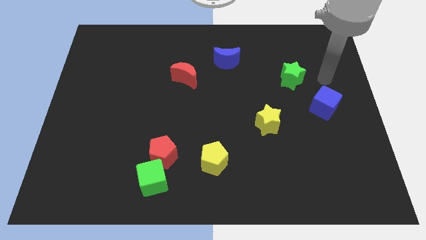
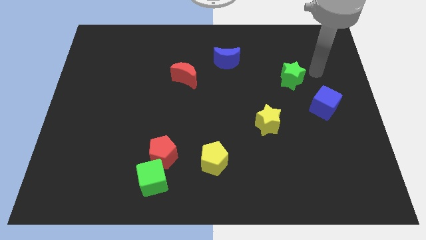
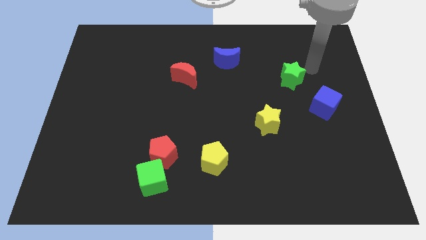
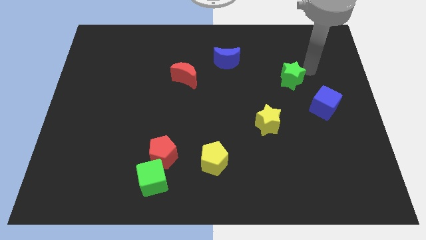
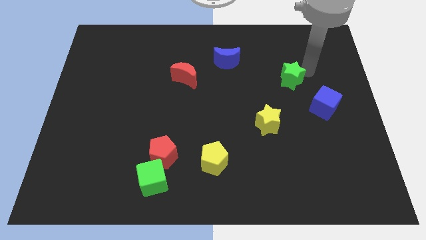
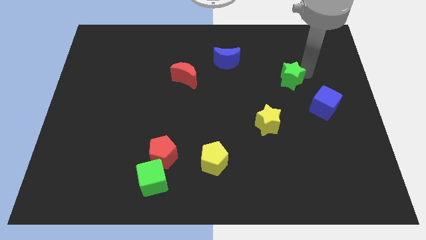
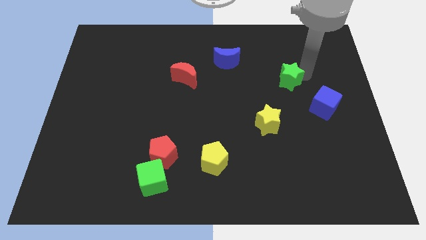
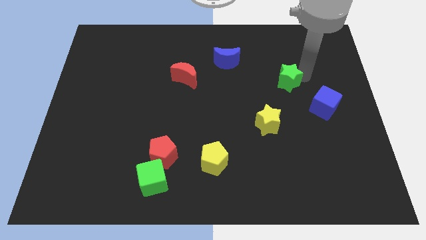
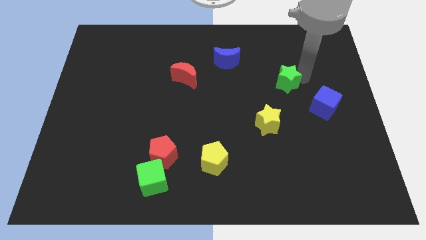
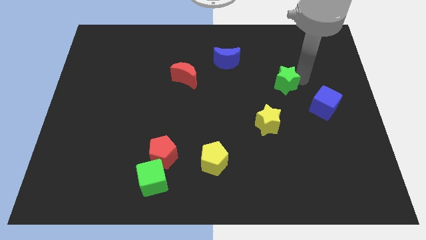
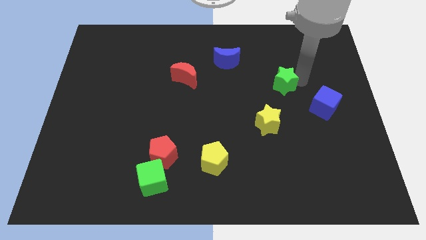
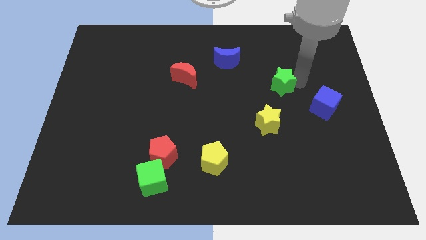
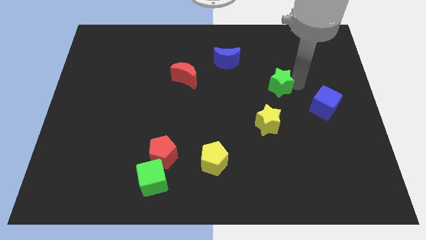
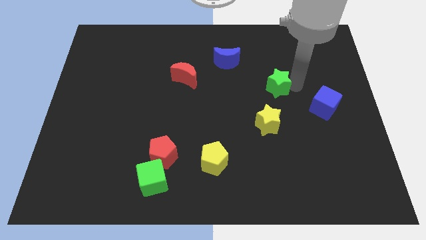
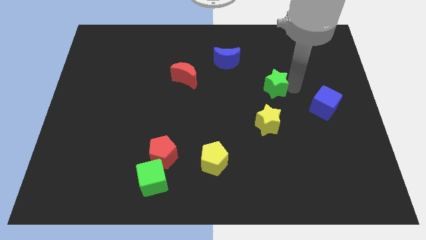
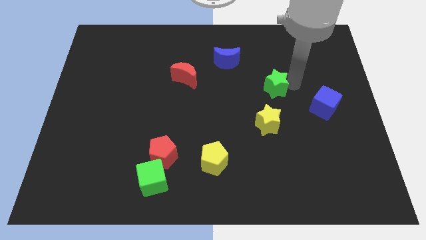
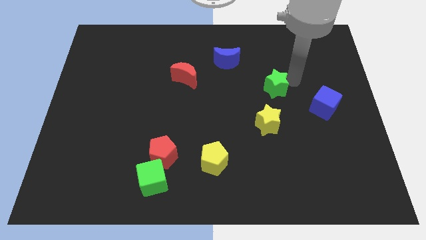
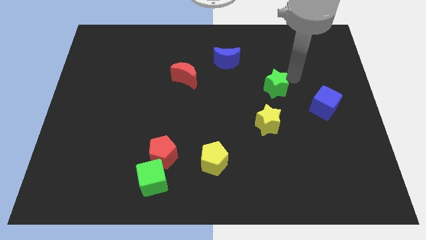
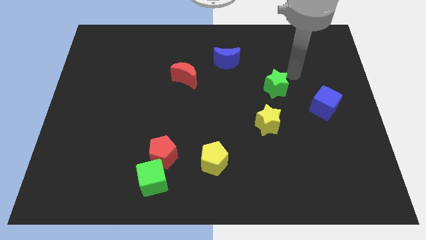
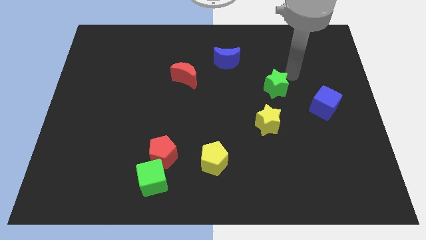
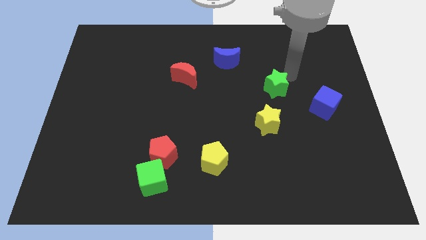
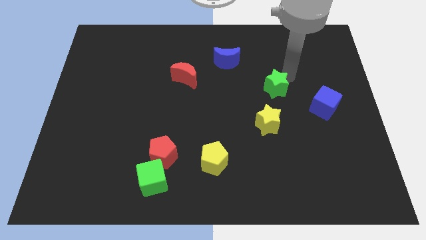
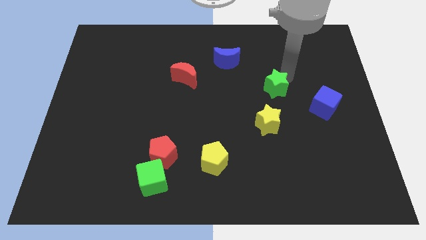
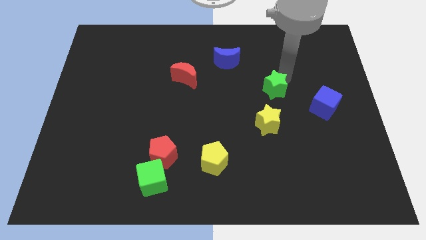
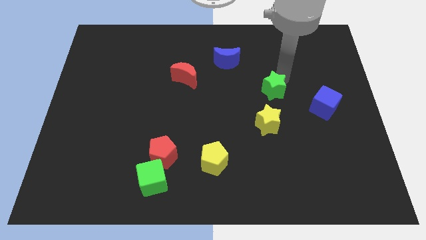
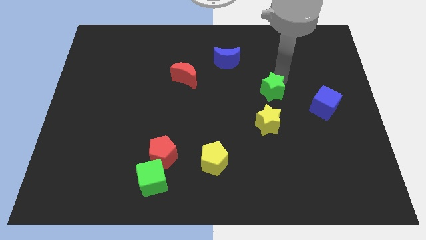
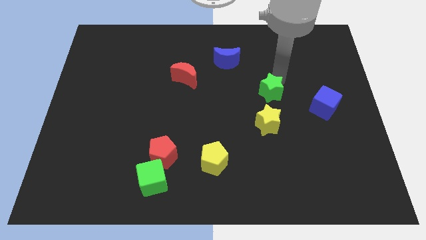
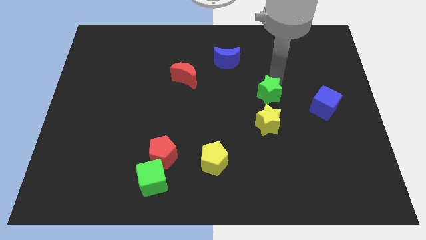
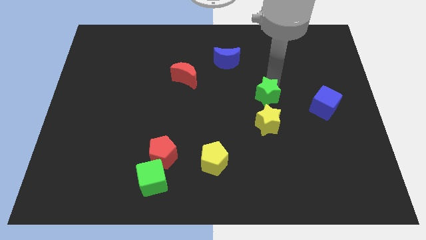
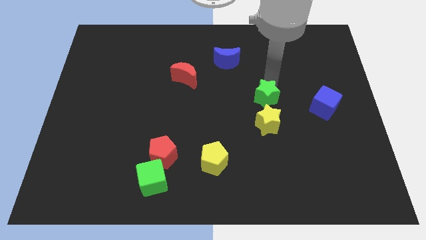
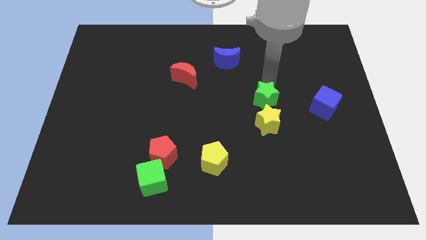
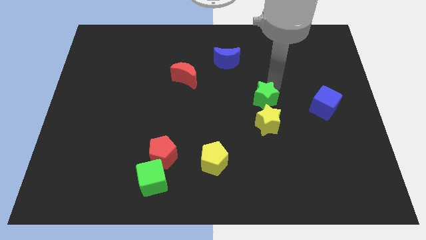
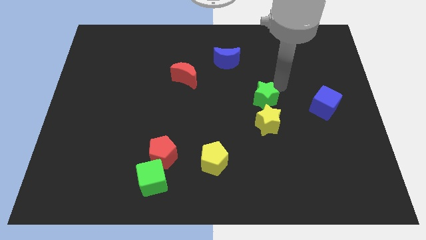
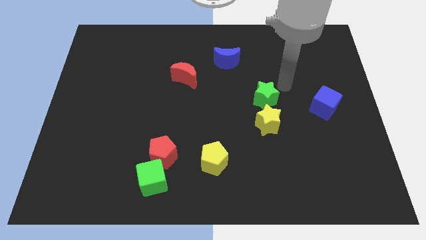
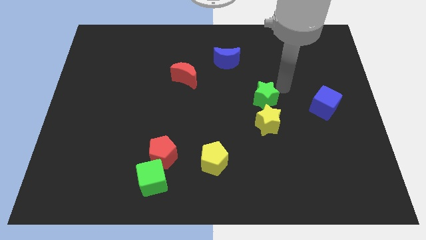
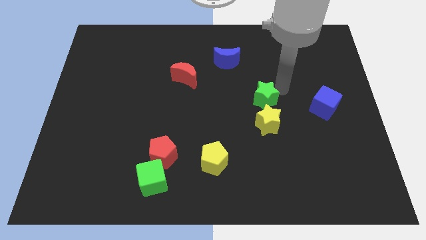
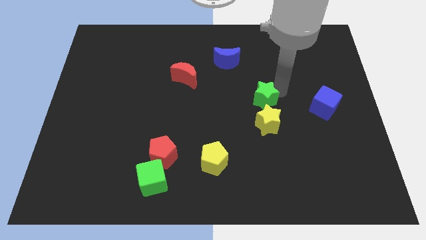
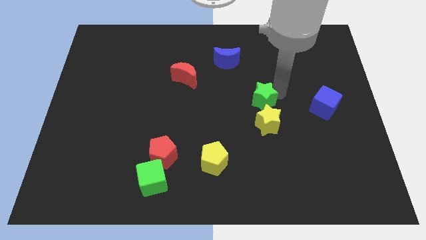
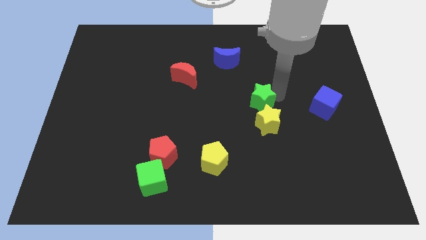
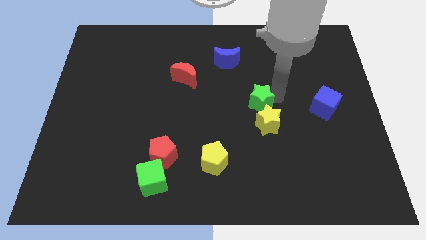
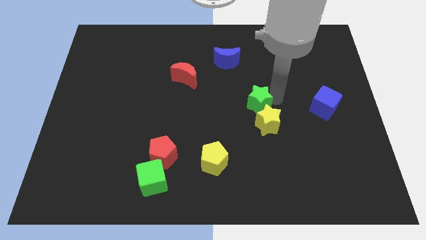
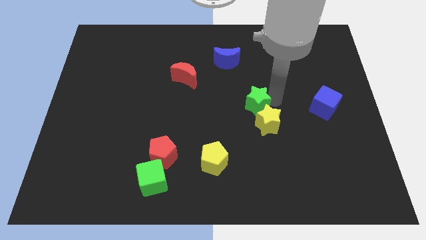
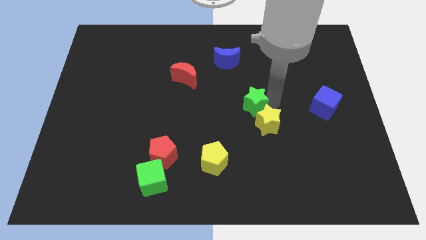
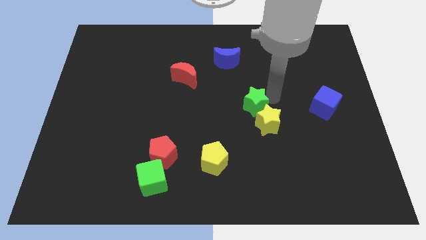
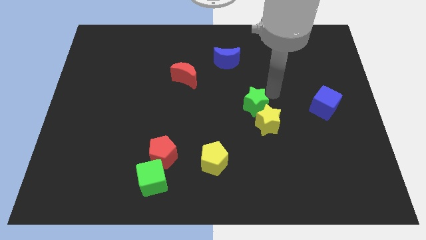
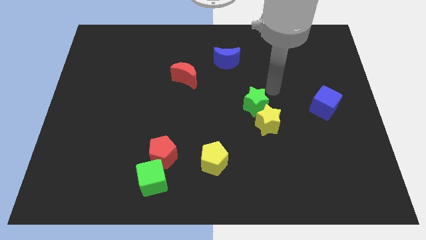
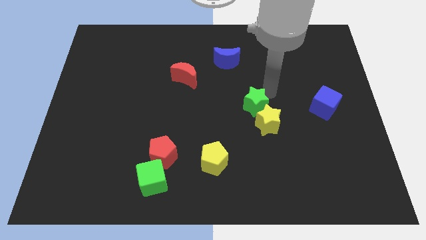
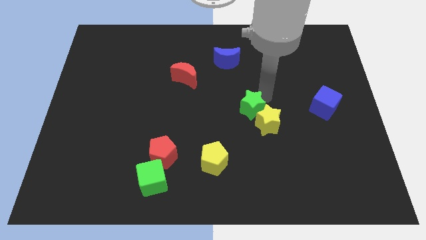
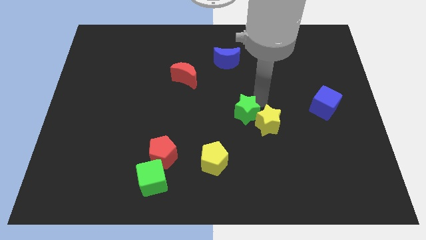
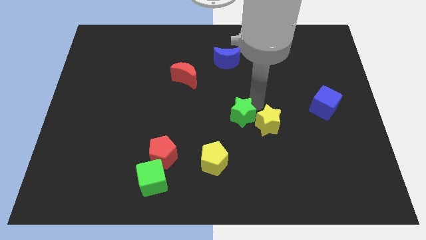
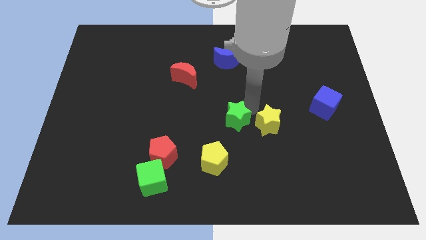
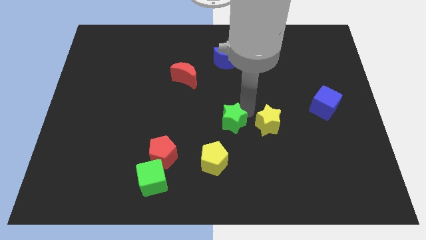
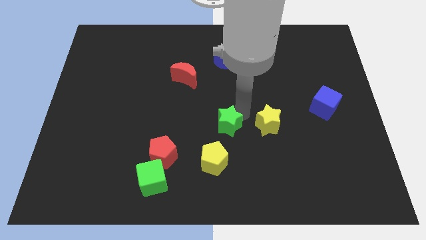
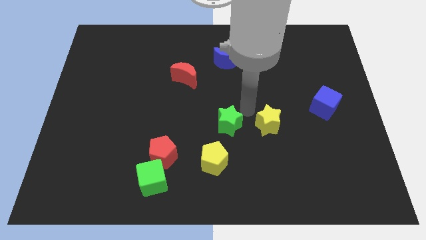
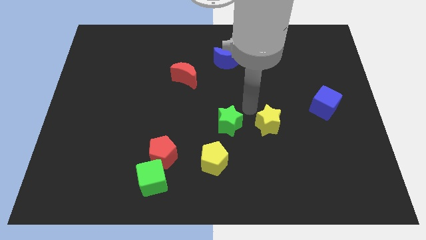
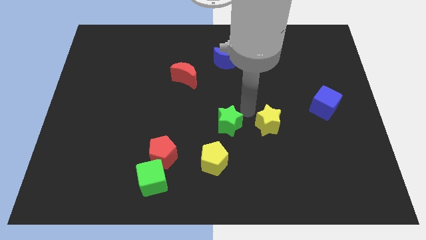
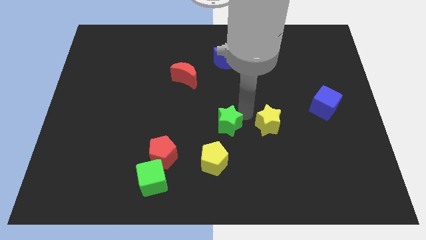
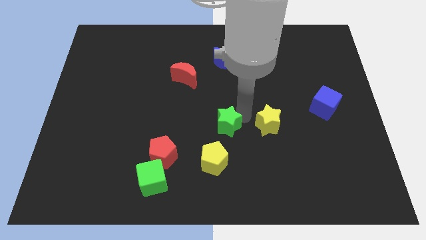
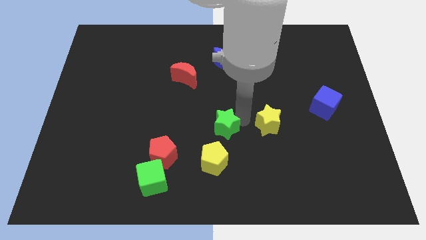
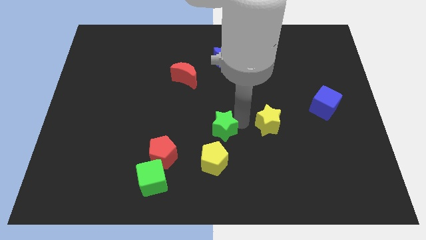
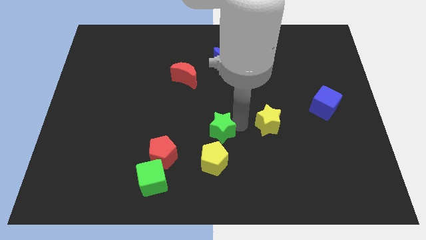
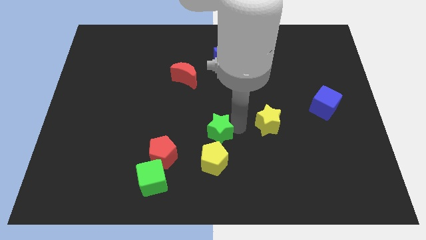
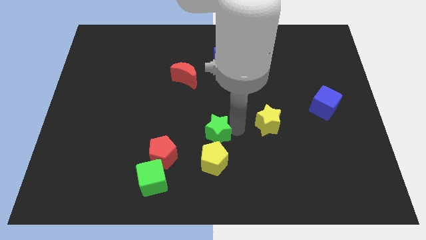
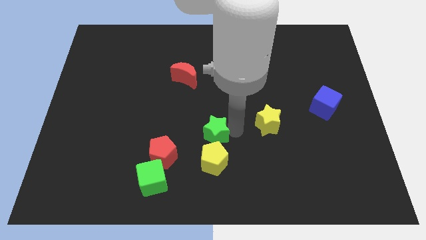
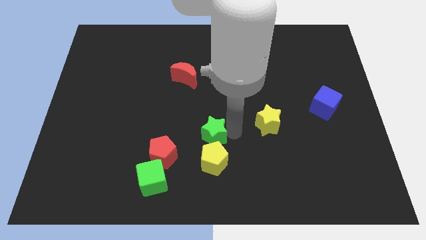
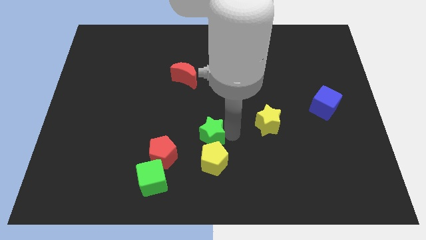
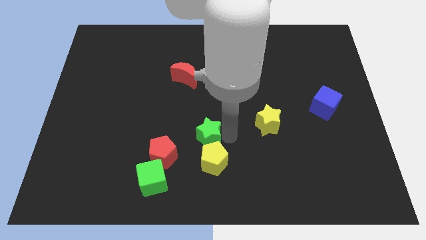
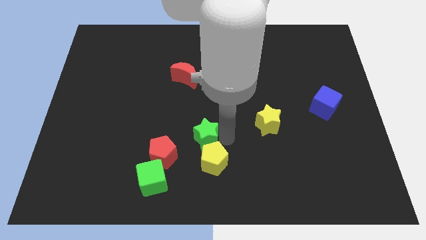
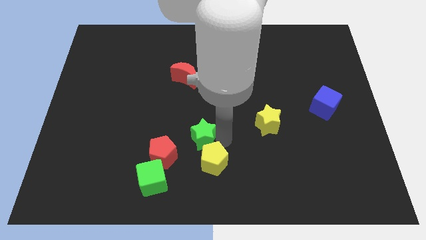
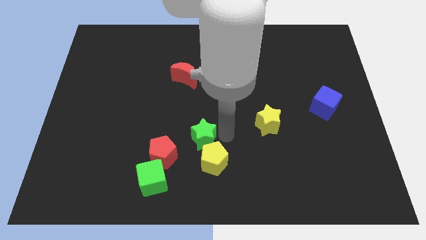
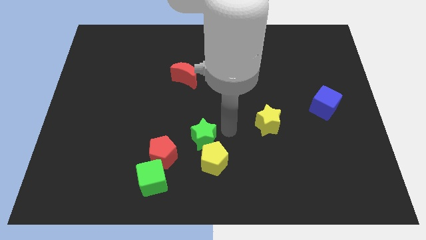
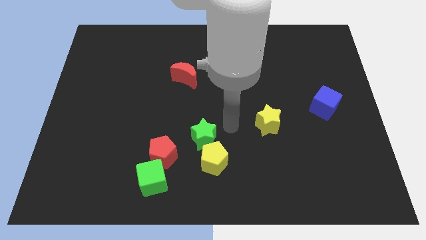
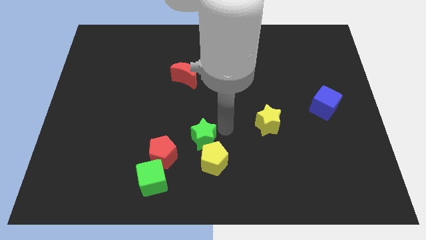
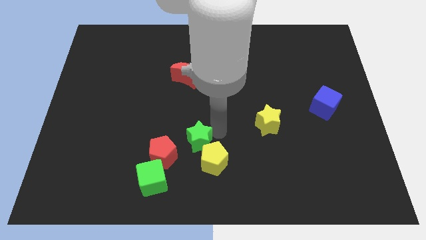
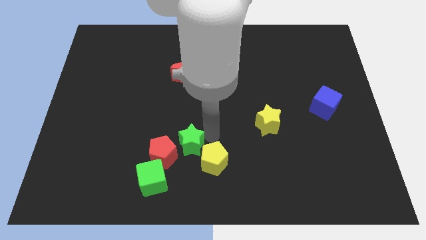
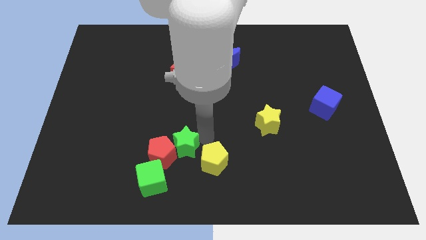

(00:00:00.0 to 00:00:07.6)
push the green star next to the red pentagon
